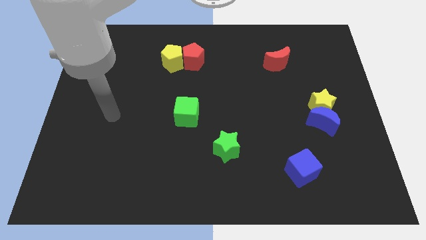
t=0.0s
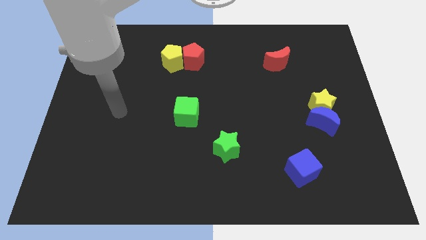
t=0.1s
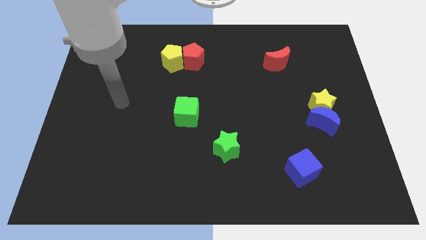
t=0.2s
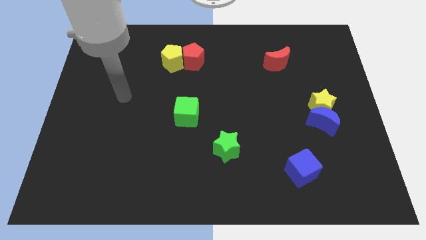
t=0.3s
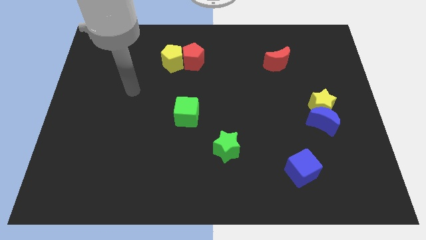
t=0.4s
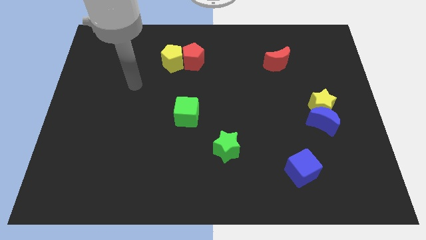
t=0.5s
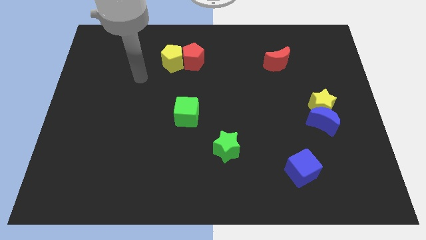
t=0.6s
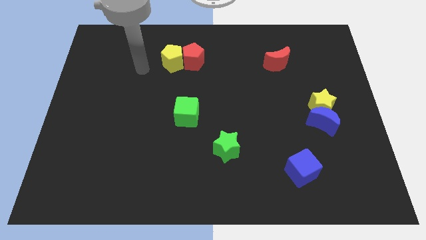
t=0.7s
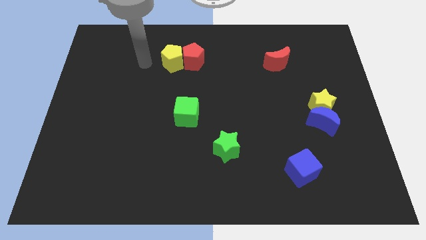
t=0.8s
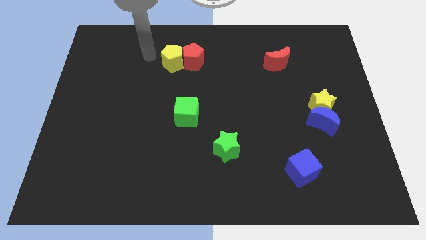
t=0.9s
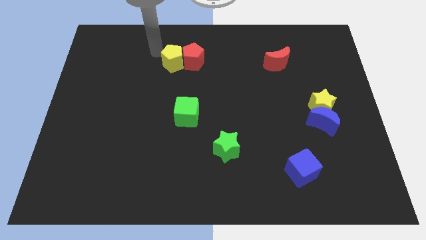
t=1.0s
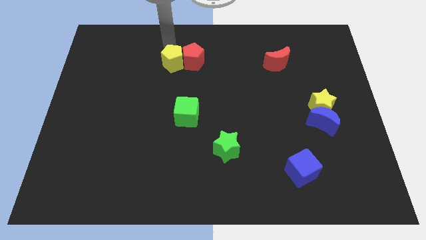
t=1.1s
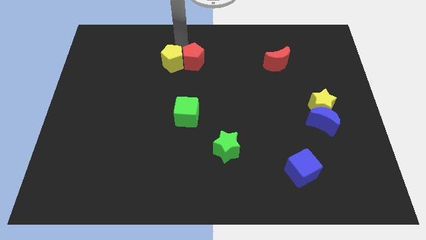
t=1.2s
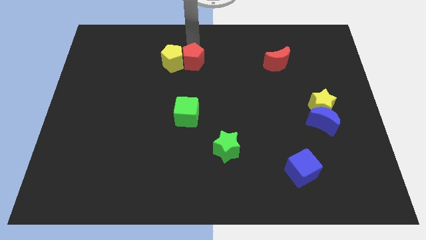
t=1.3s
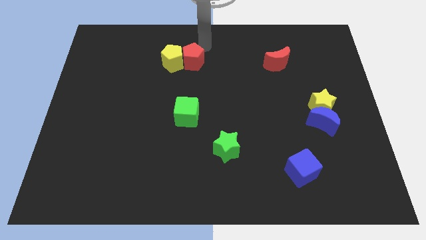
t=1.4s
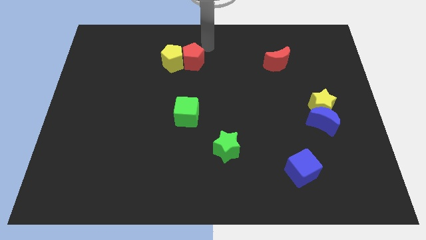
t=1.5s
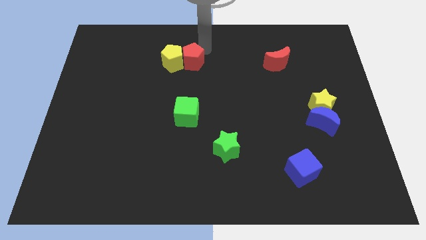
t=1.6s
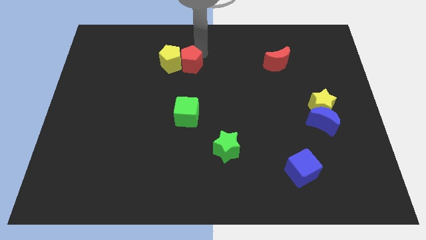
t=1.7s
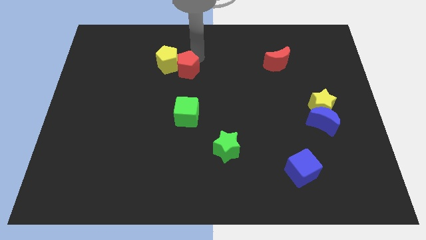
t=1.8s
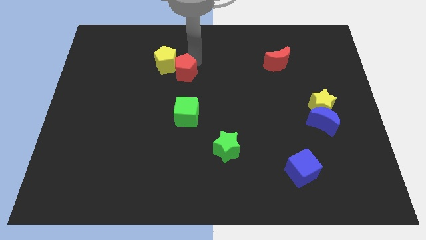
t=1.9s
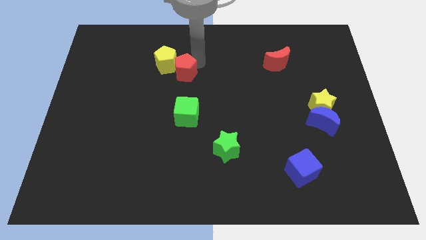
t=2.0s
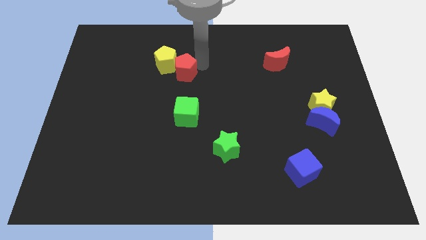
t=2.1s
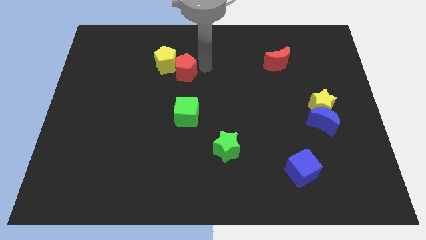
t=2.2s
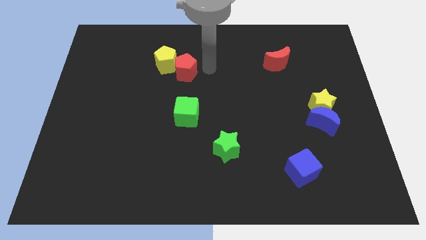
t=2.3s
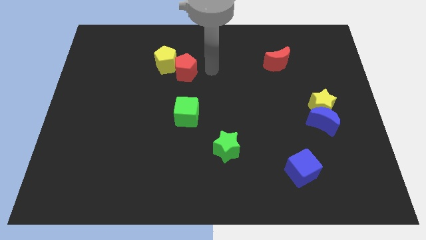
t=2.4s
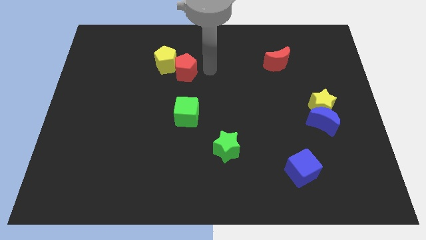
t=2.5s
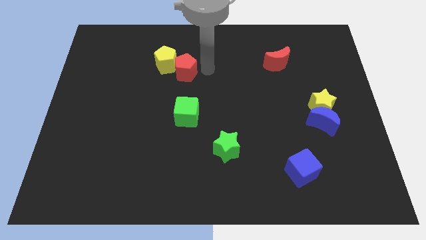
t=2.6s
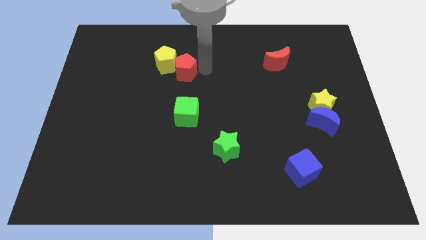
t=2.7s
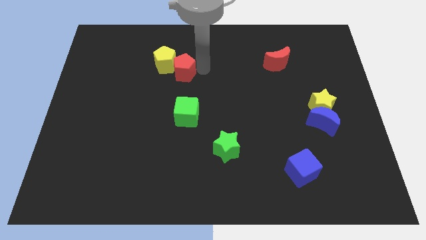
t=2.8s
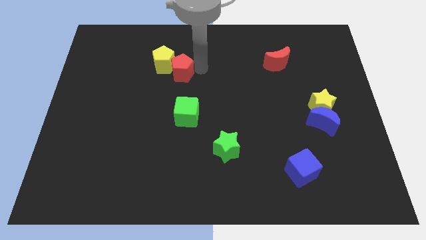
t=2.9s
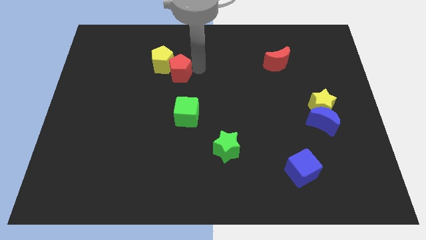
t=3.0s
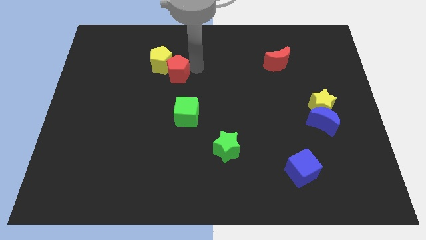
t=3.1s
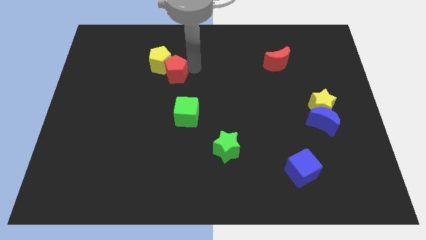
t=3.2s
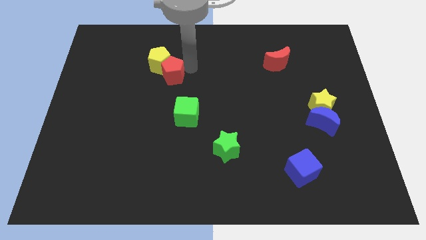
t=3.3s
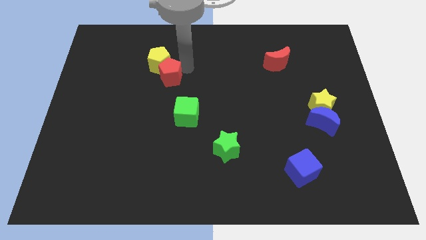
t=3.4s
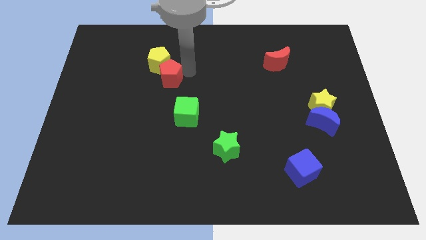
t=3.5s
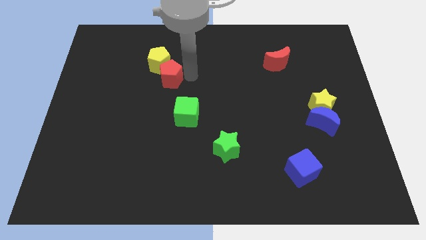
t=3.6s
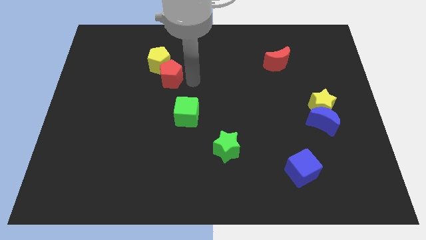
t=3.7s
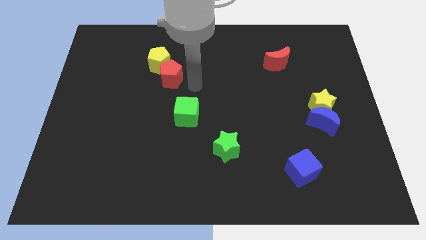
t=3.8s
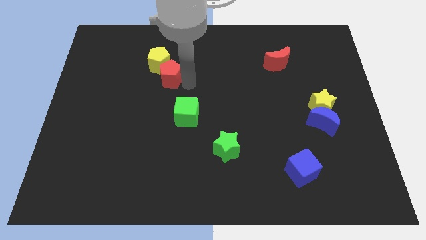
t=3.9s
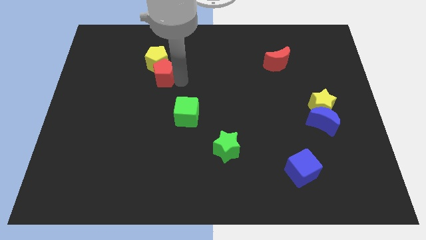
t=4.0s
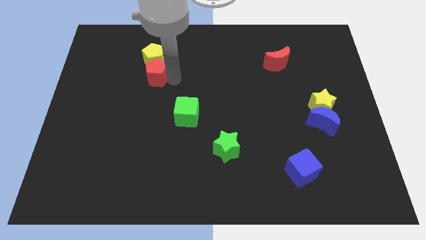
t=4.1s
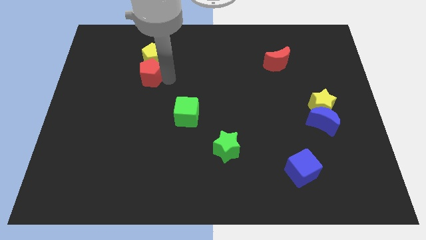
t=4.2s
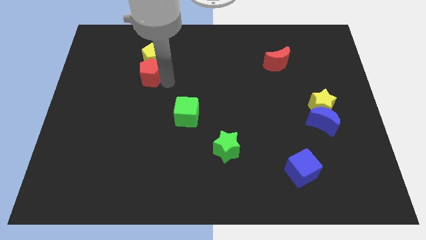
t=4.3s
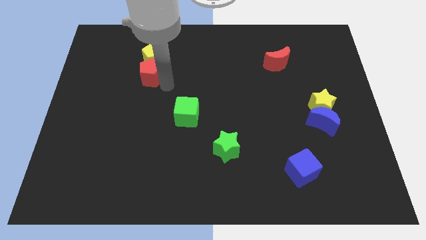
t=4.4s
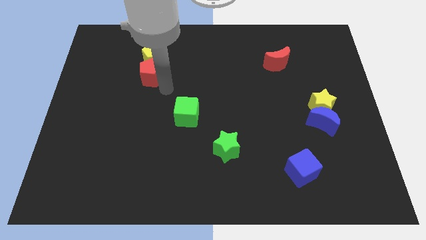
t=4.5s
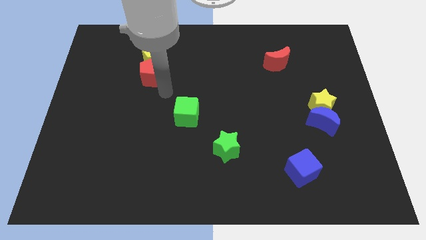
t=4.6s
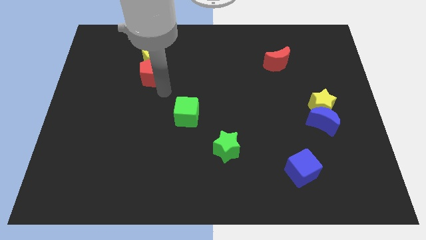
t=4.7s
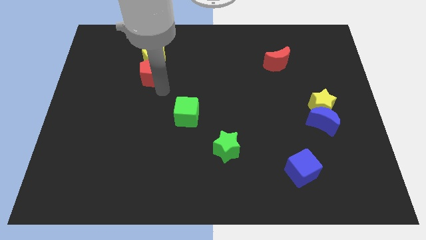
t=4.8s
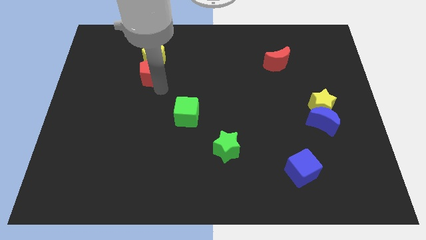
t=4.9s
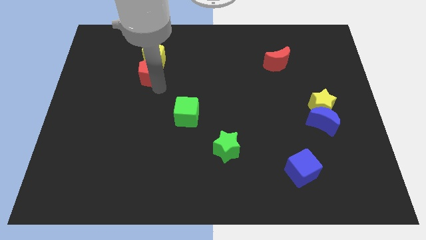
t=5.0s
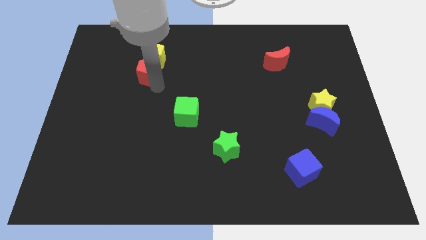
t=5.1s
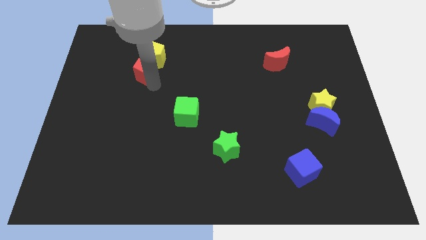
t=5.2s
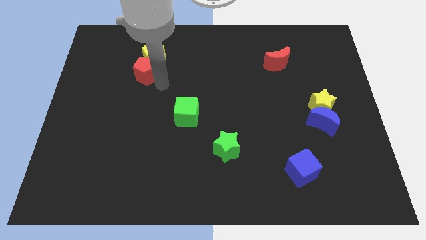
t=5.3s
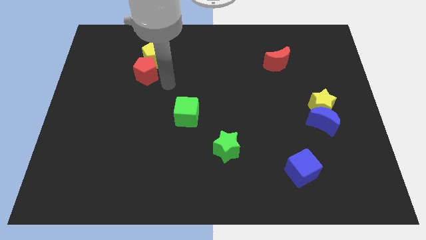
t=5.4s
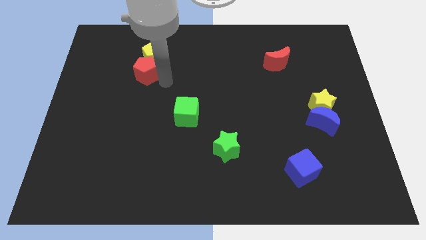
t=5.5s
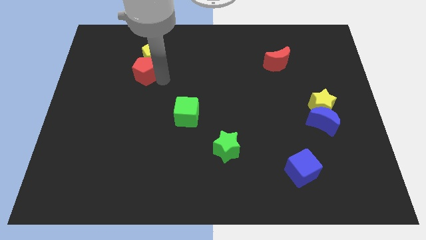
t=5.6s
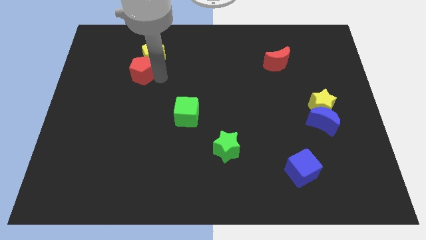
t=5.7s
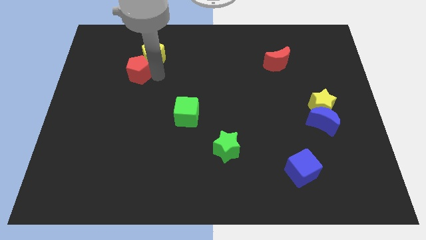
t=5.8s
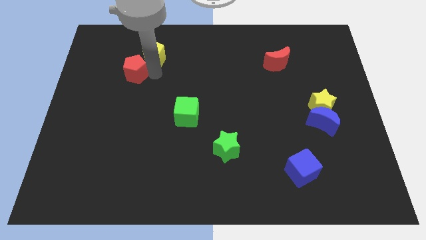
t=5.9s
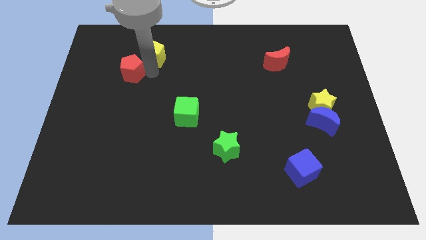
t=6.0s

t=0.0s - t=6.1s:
push the red pentagon to the left of the yellow pentagon
